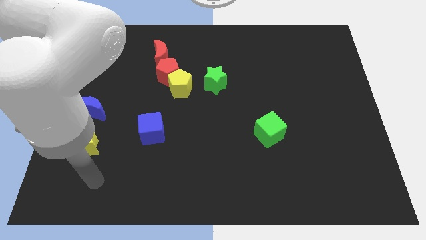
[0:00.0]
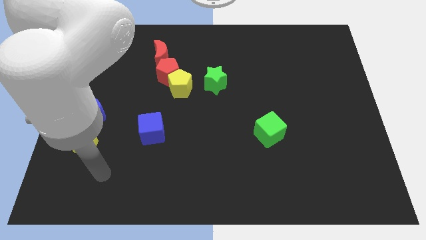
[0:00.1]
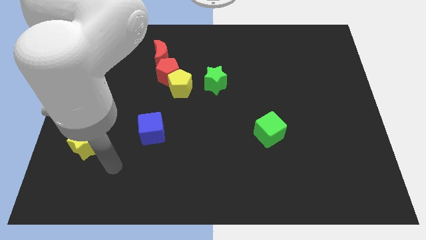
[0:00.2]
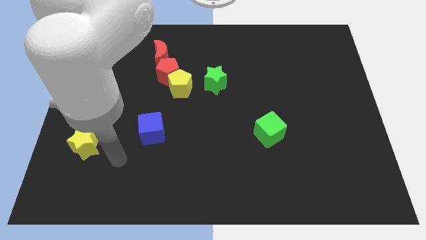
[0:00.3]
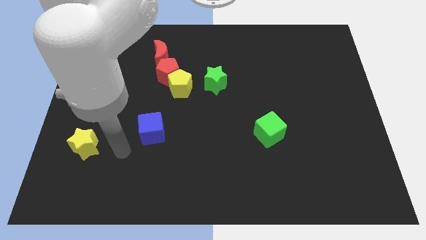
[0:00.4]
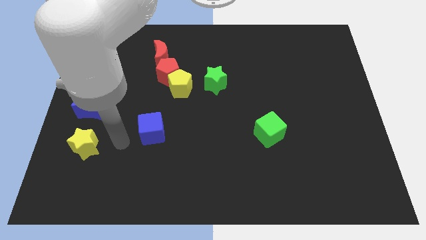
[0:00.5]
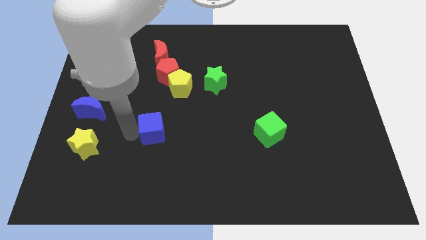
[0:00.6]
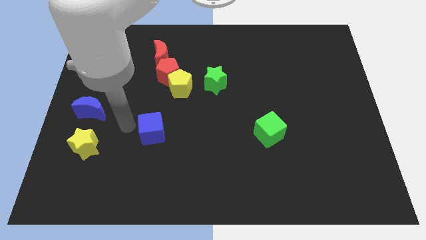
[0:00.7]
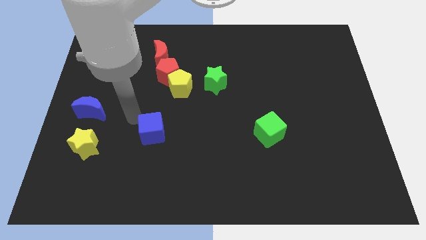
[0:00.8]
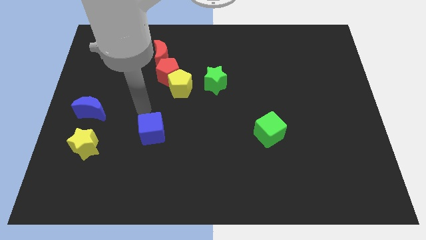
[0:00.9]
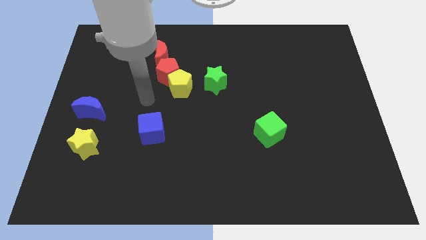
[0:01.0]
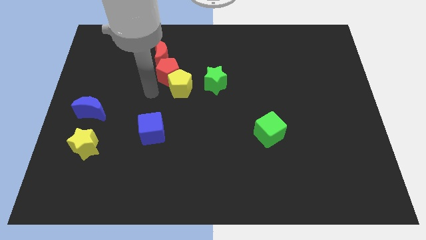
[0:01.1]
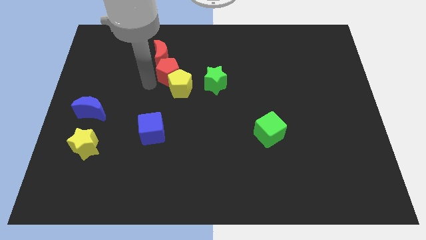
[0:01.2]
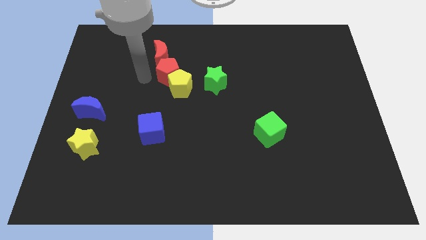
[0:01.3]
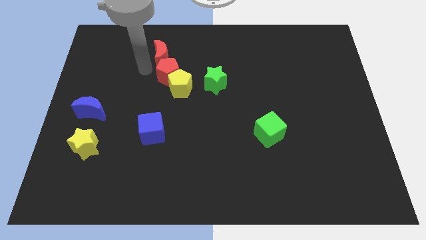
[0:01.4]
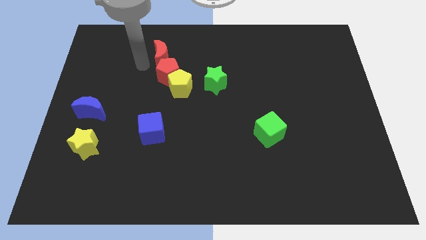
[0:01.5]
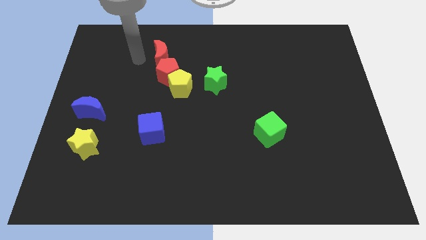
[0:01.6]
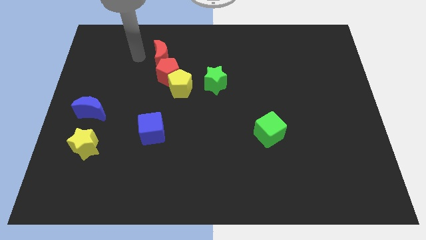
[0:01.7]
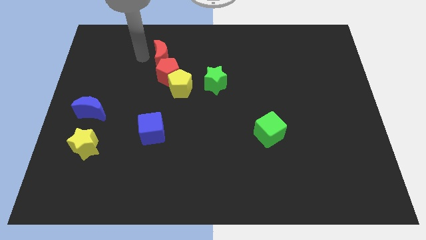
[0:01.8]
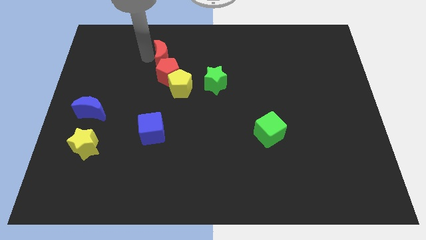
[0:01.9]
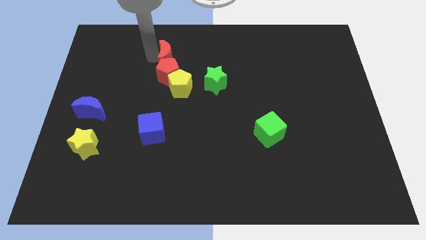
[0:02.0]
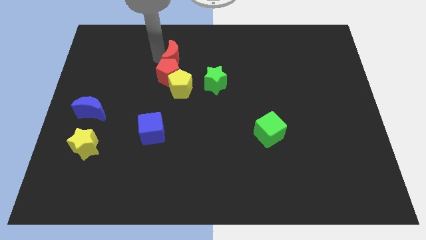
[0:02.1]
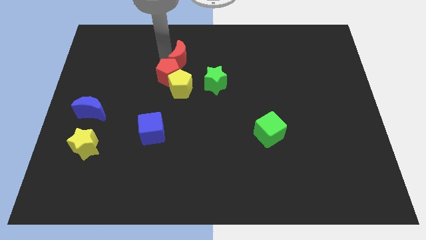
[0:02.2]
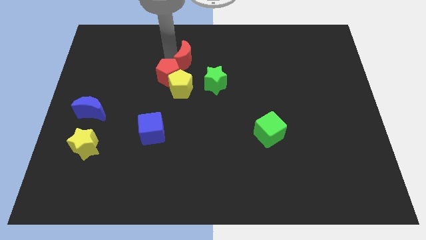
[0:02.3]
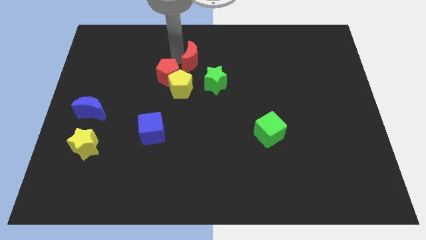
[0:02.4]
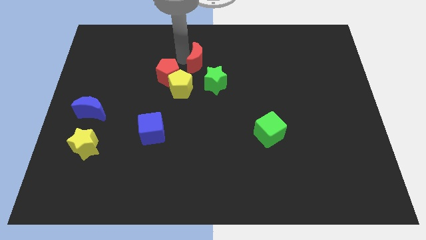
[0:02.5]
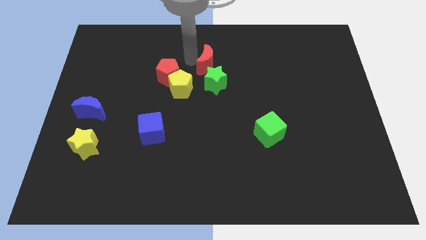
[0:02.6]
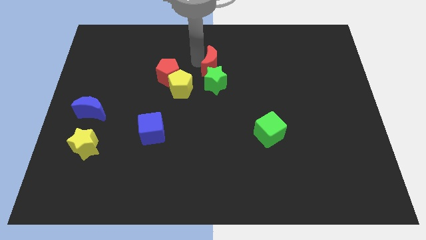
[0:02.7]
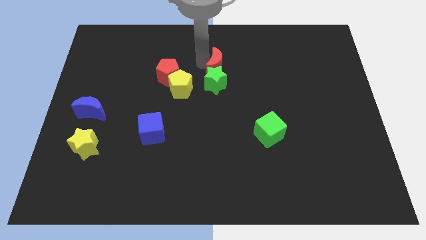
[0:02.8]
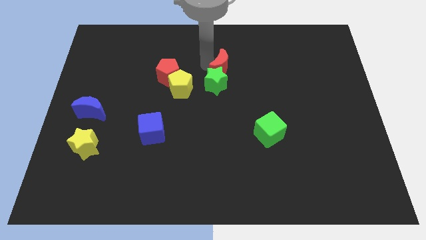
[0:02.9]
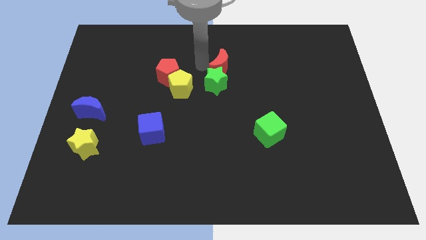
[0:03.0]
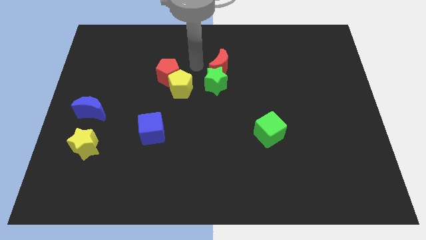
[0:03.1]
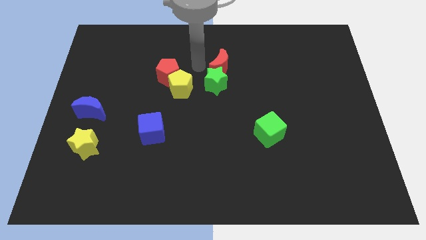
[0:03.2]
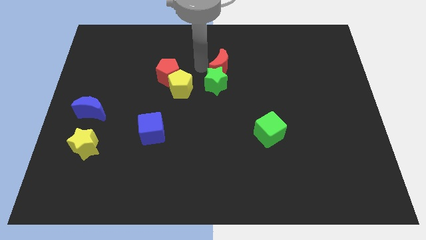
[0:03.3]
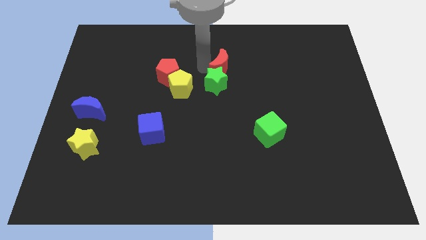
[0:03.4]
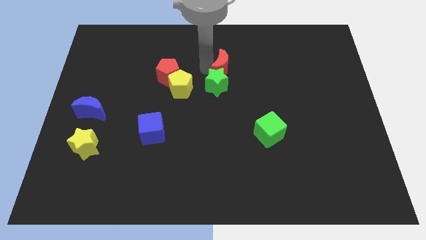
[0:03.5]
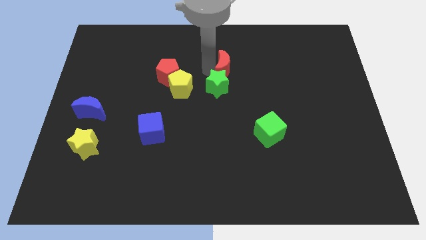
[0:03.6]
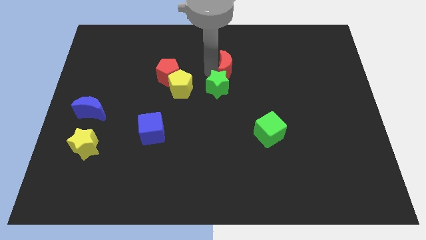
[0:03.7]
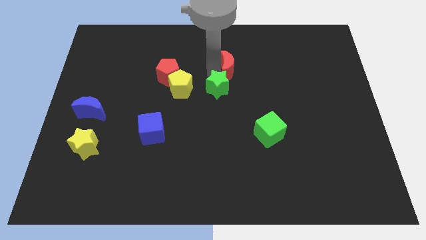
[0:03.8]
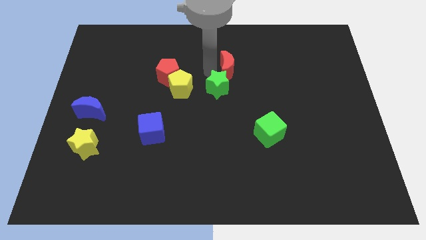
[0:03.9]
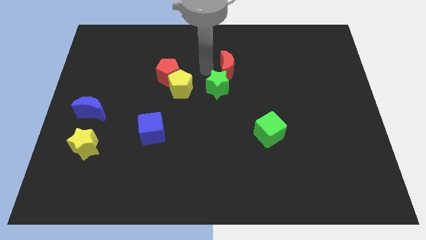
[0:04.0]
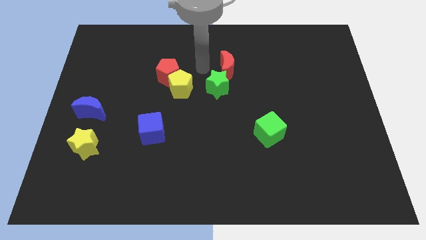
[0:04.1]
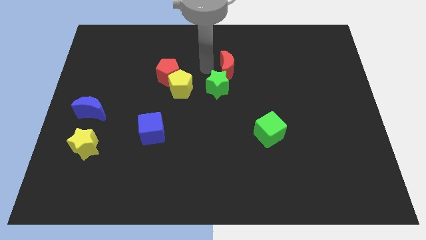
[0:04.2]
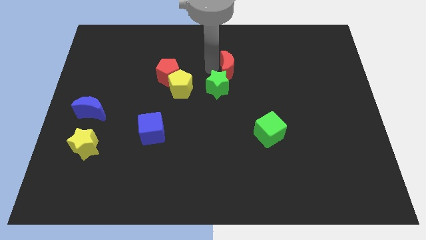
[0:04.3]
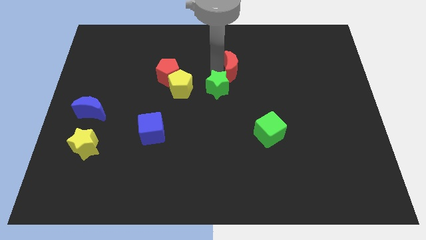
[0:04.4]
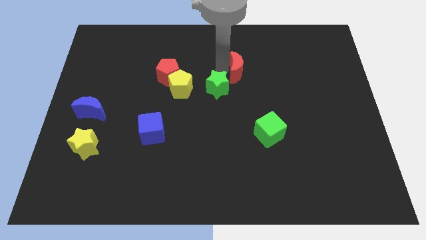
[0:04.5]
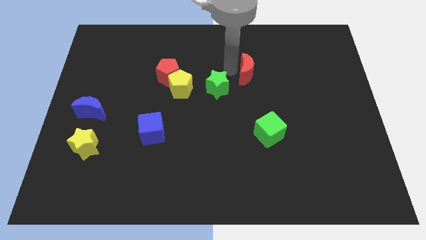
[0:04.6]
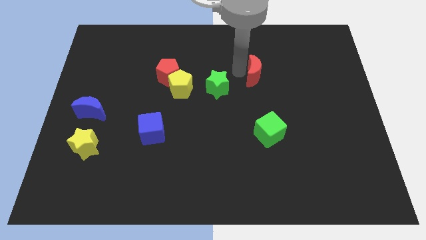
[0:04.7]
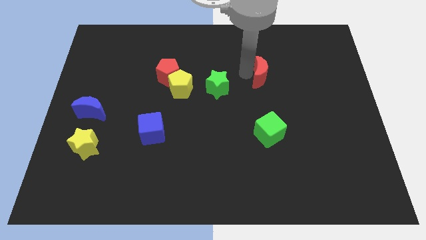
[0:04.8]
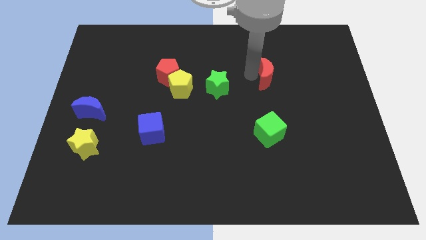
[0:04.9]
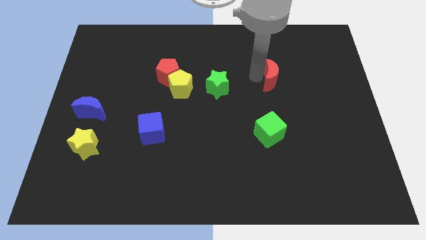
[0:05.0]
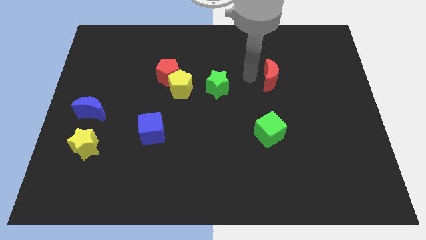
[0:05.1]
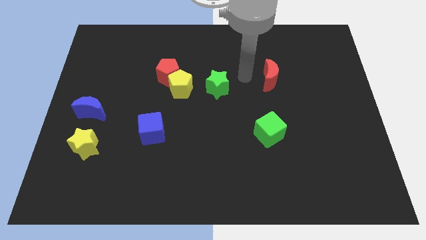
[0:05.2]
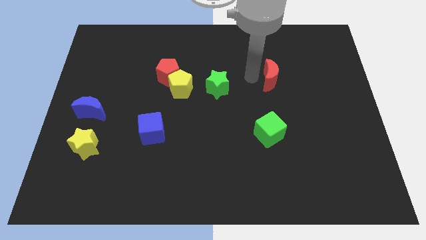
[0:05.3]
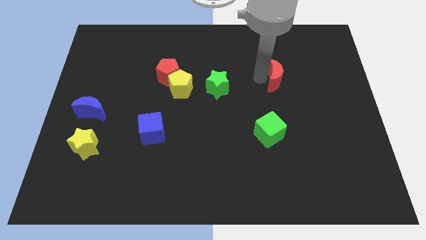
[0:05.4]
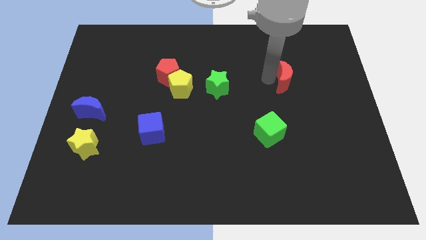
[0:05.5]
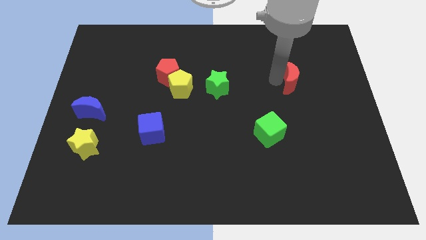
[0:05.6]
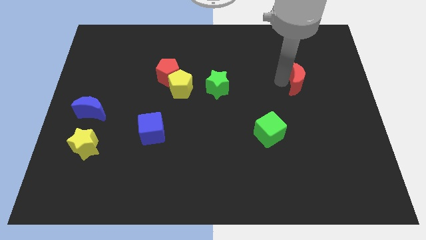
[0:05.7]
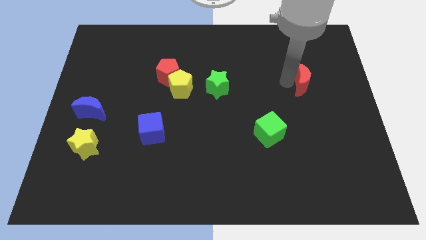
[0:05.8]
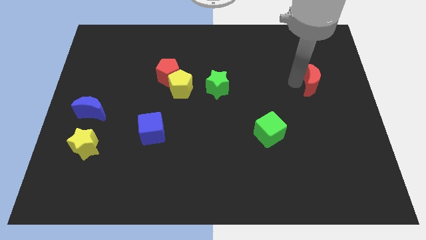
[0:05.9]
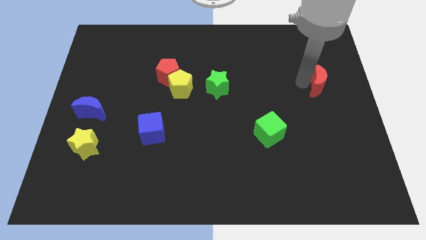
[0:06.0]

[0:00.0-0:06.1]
push the red moon to the right side
